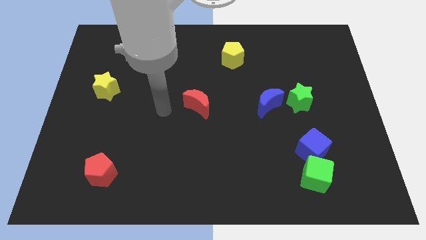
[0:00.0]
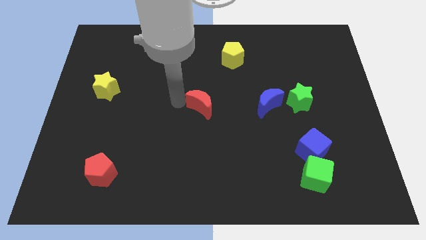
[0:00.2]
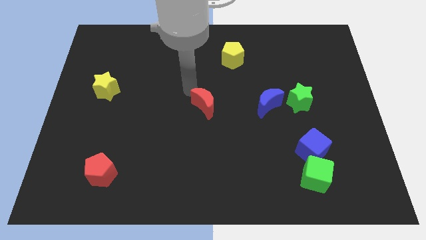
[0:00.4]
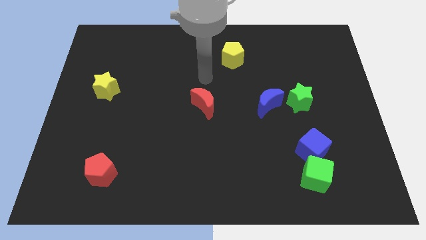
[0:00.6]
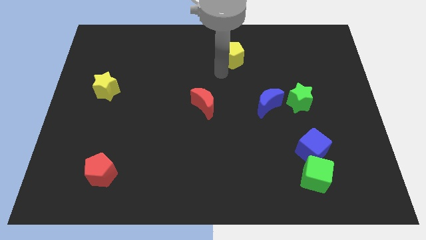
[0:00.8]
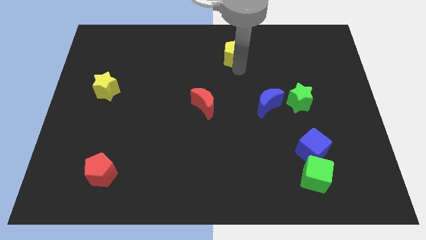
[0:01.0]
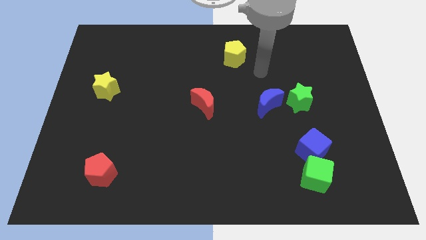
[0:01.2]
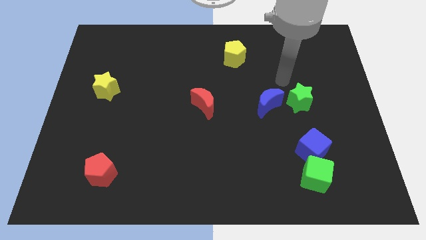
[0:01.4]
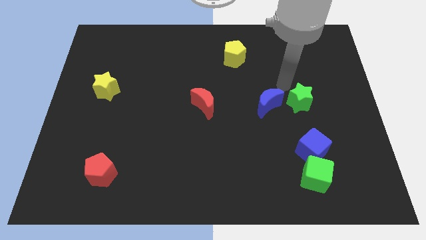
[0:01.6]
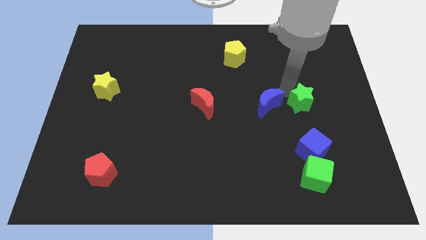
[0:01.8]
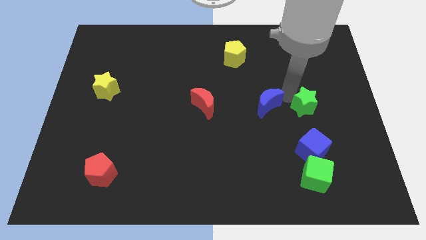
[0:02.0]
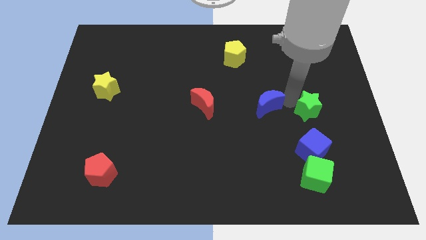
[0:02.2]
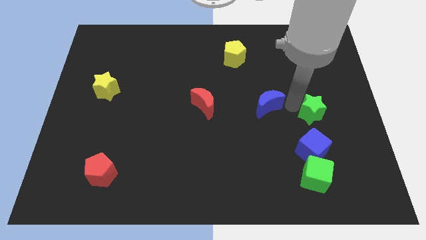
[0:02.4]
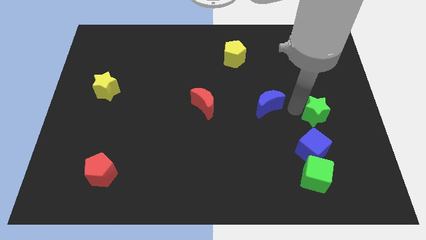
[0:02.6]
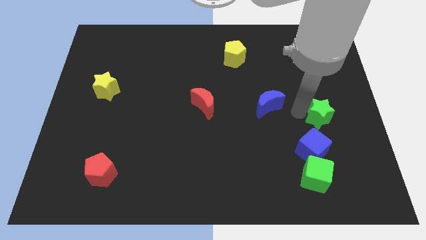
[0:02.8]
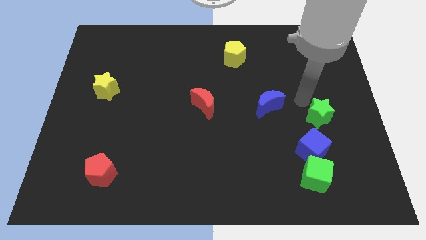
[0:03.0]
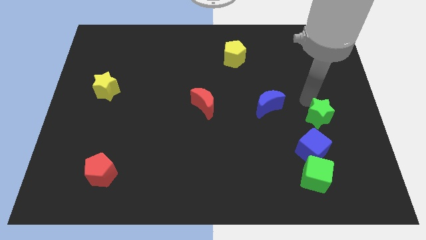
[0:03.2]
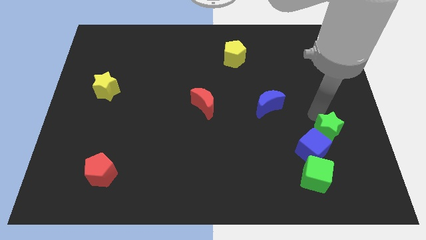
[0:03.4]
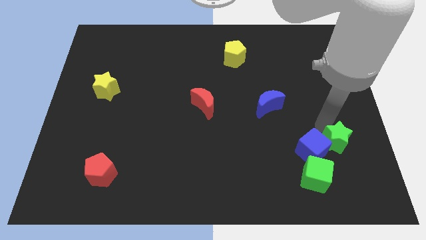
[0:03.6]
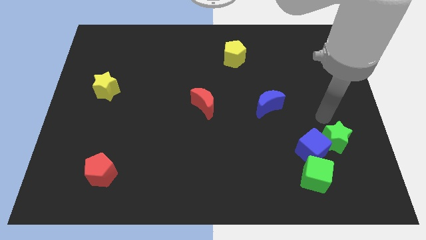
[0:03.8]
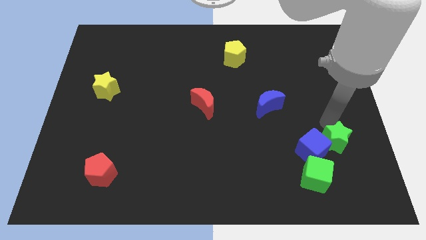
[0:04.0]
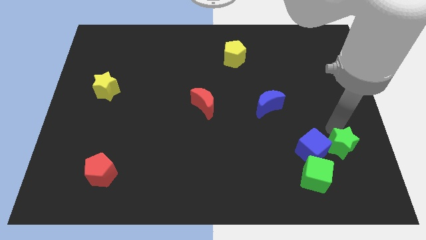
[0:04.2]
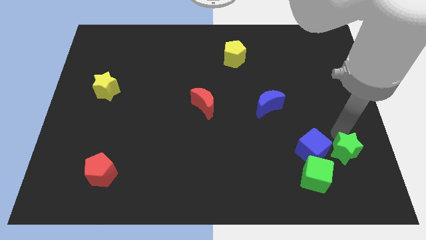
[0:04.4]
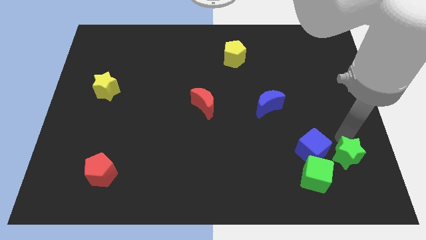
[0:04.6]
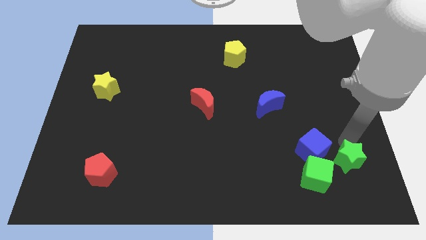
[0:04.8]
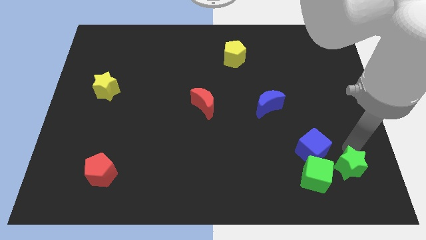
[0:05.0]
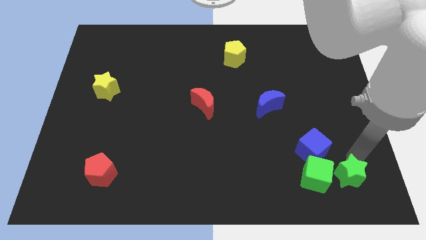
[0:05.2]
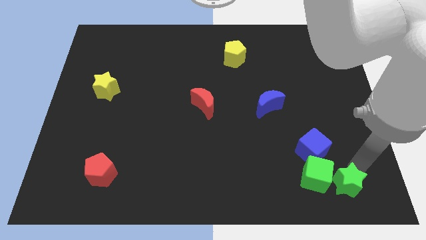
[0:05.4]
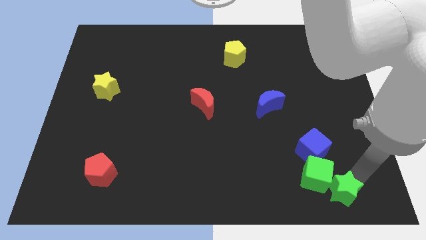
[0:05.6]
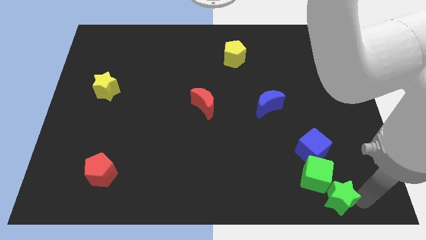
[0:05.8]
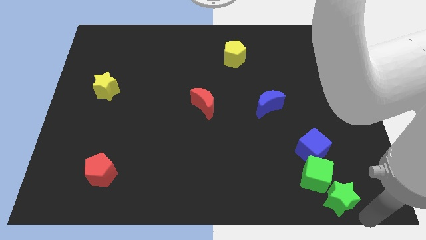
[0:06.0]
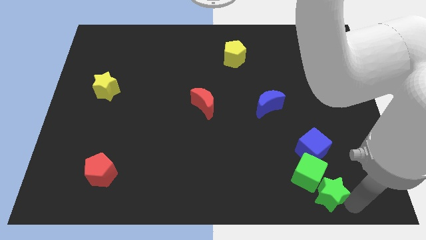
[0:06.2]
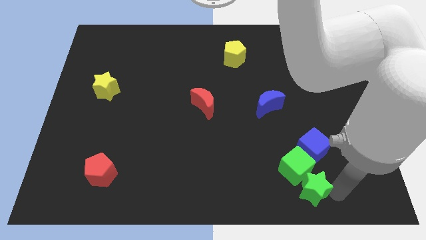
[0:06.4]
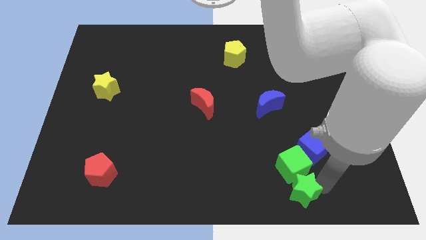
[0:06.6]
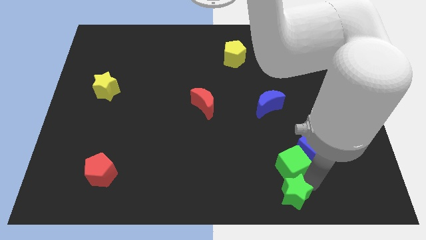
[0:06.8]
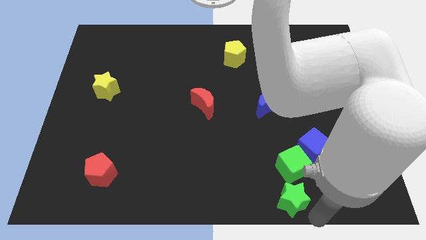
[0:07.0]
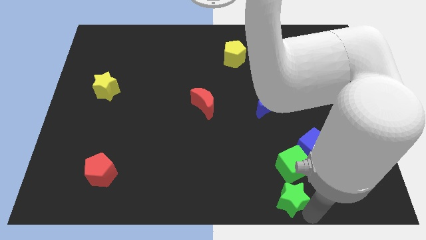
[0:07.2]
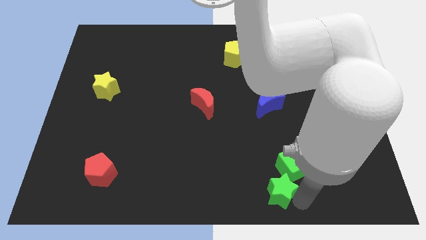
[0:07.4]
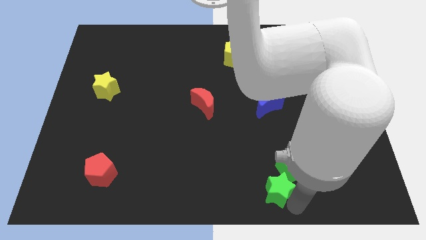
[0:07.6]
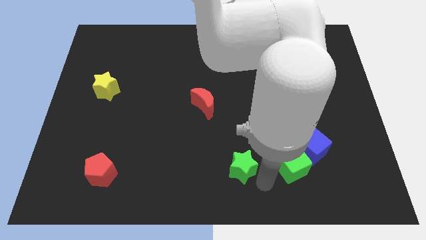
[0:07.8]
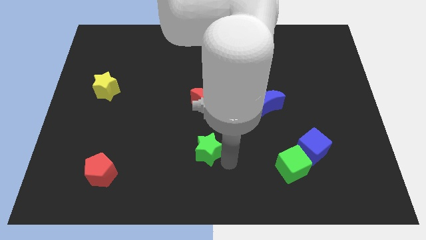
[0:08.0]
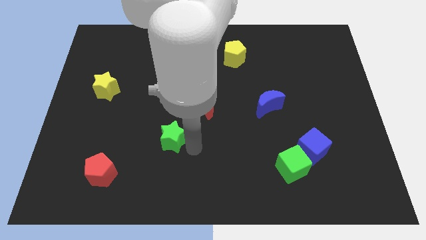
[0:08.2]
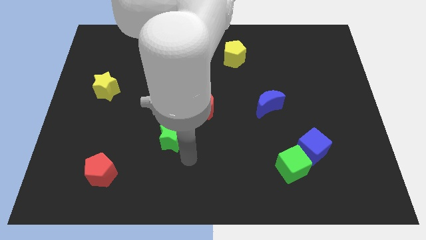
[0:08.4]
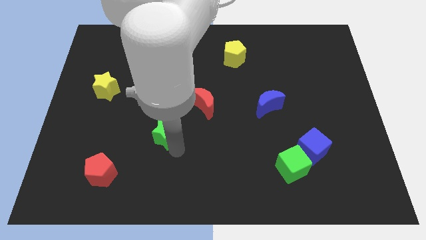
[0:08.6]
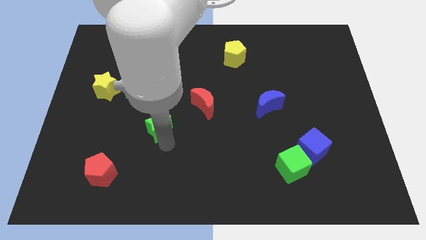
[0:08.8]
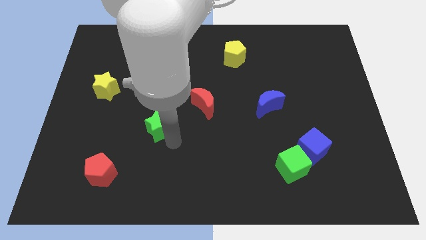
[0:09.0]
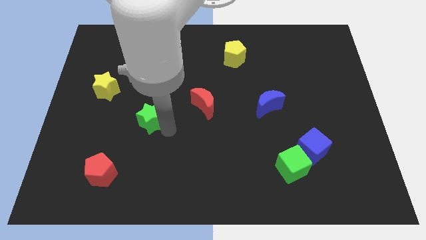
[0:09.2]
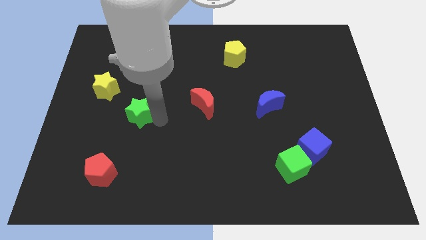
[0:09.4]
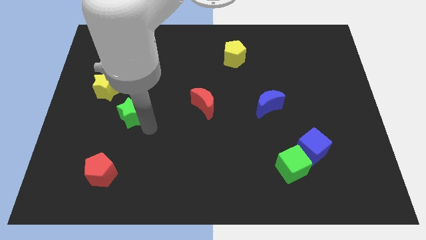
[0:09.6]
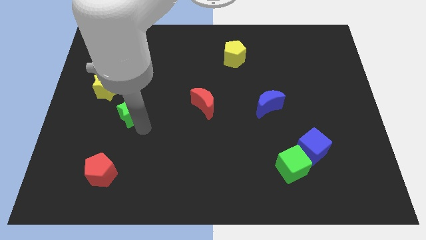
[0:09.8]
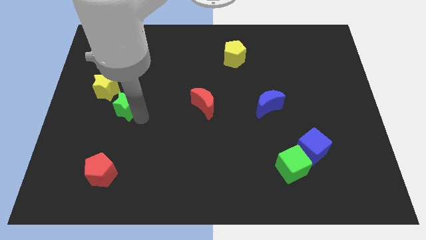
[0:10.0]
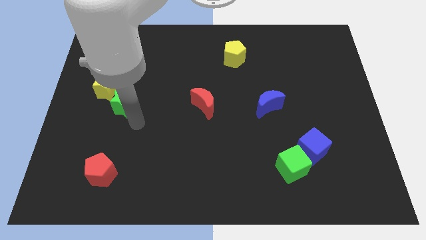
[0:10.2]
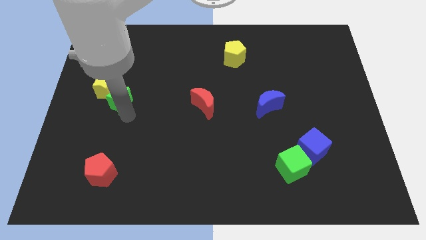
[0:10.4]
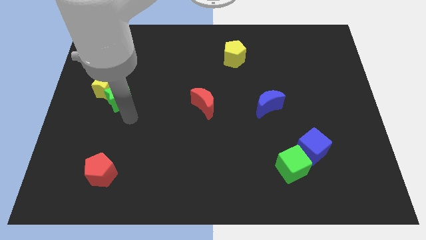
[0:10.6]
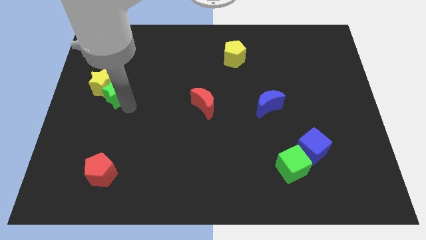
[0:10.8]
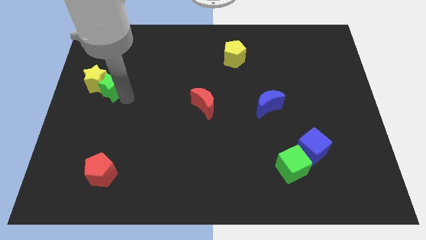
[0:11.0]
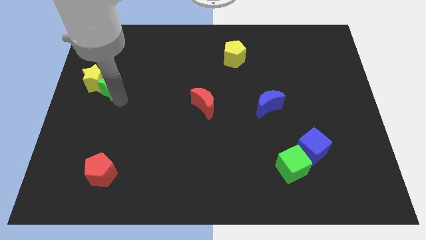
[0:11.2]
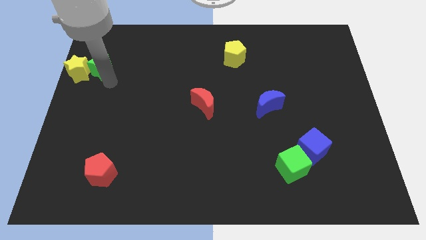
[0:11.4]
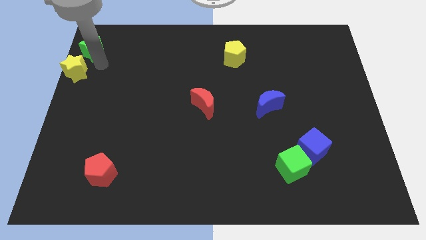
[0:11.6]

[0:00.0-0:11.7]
push the green star to the top left of the board

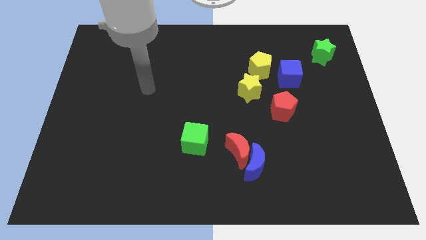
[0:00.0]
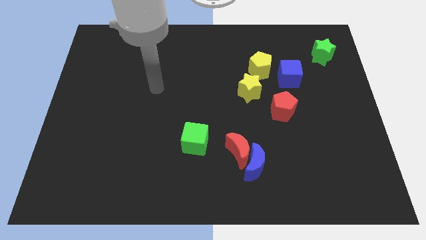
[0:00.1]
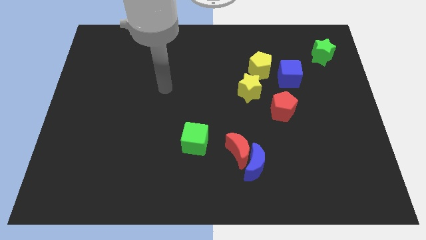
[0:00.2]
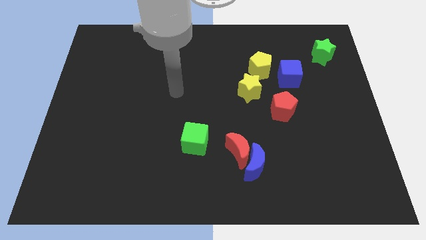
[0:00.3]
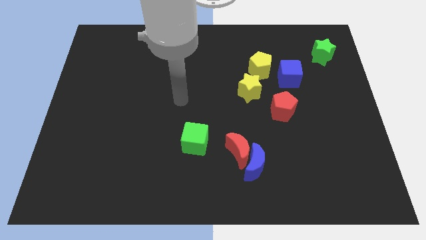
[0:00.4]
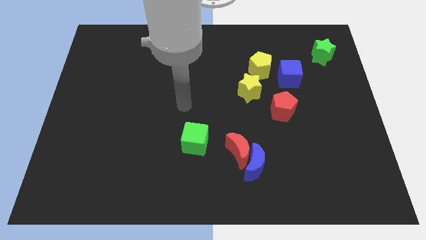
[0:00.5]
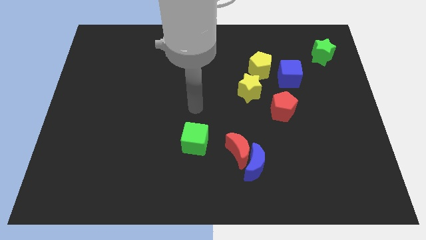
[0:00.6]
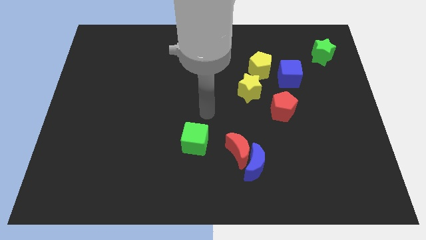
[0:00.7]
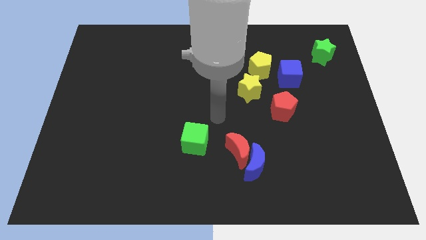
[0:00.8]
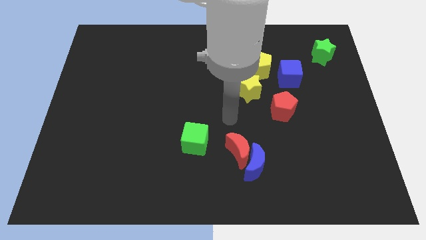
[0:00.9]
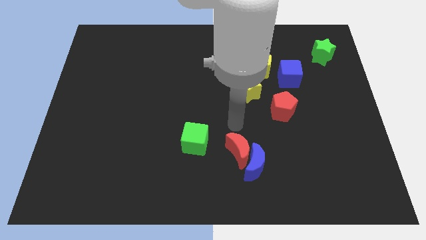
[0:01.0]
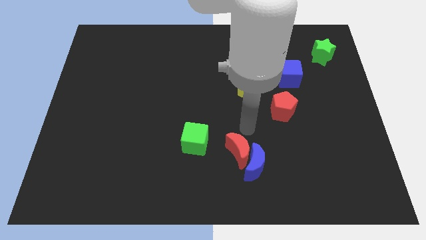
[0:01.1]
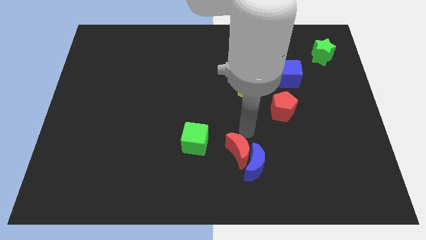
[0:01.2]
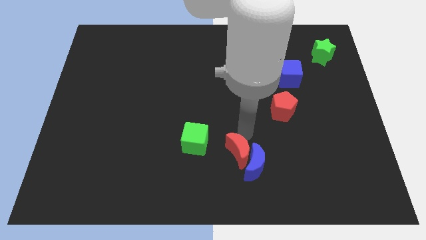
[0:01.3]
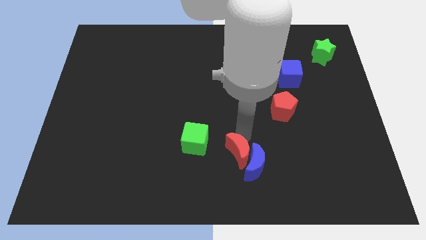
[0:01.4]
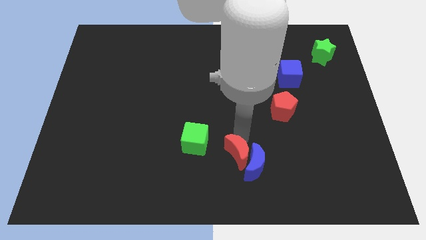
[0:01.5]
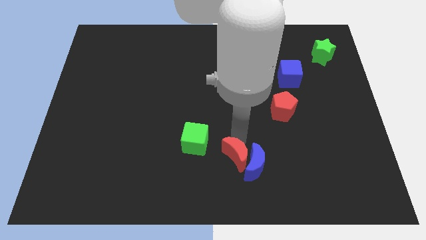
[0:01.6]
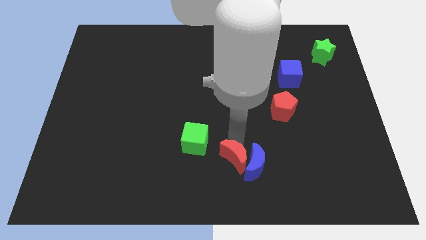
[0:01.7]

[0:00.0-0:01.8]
put the red moon to the bottom side

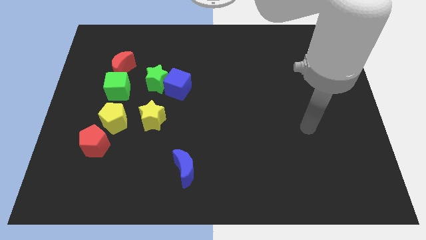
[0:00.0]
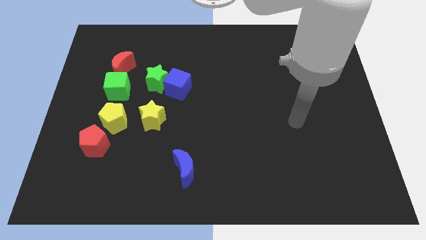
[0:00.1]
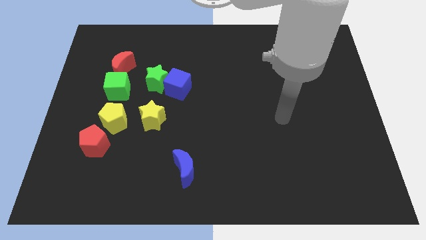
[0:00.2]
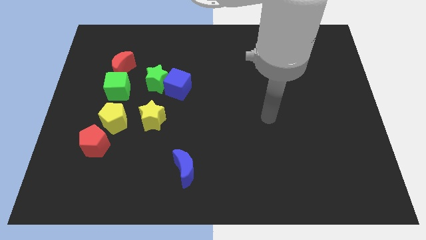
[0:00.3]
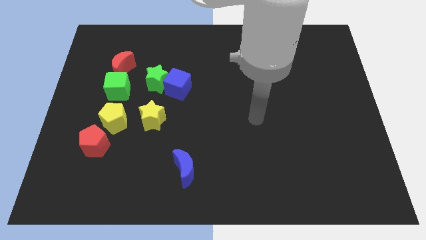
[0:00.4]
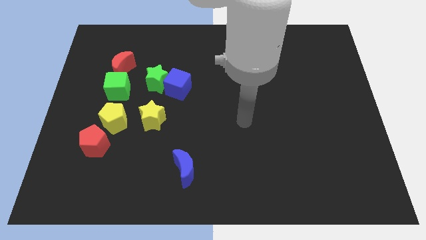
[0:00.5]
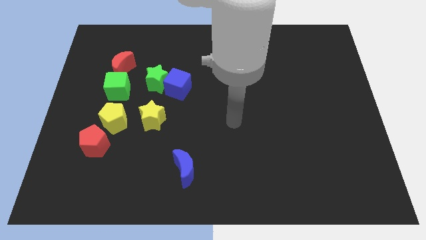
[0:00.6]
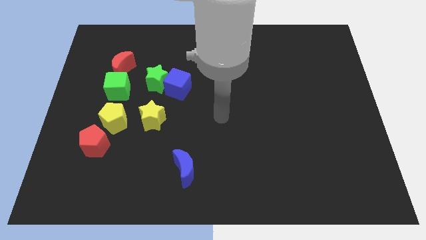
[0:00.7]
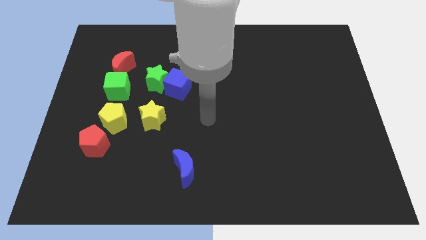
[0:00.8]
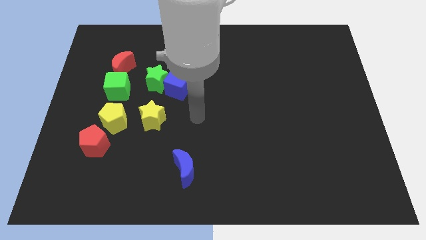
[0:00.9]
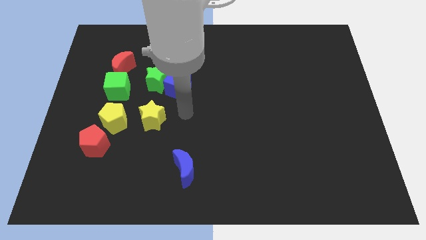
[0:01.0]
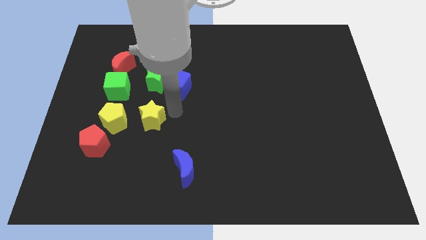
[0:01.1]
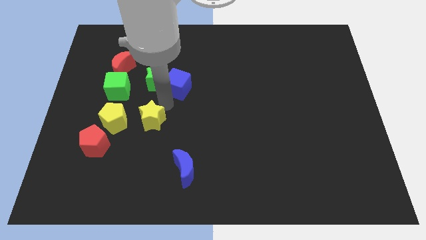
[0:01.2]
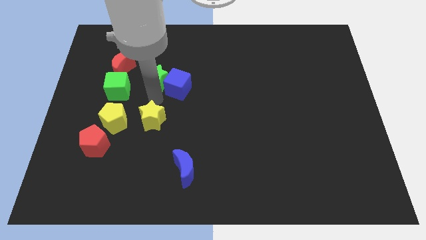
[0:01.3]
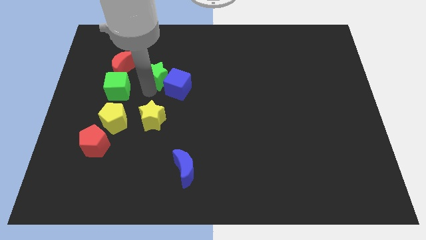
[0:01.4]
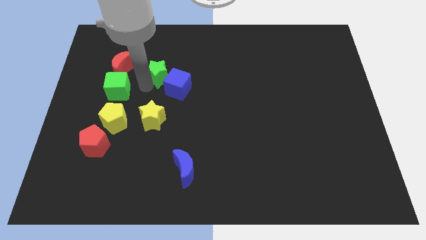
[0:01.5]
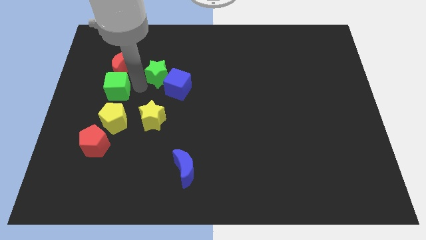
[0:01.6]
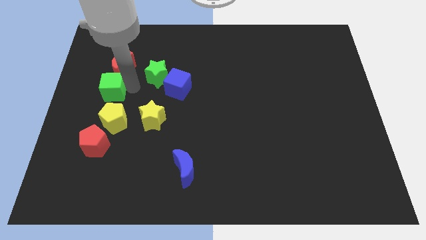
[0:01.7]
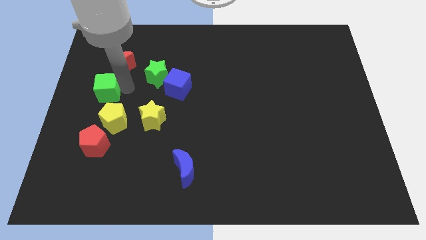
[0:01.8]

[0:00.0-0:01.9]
push the green cube to the left side of the board
